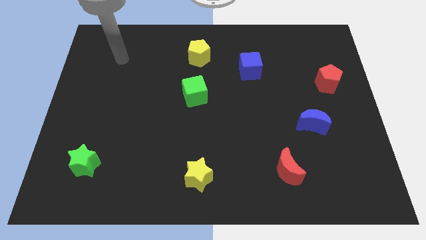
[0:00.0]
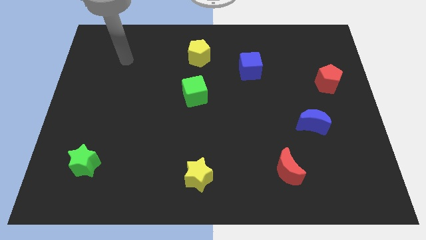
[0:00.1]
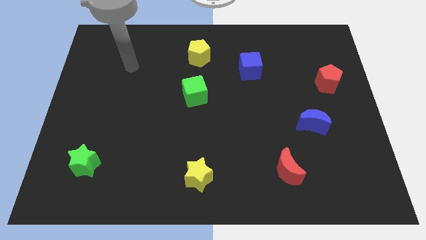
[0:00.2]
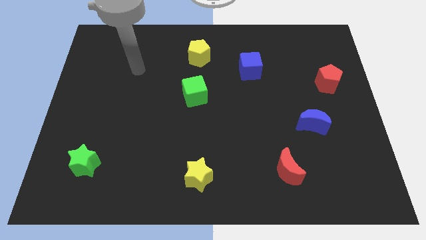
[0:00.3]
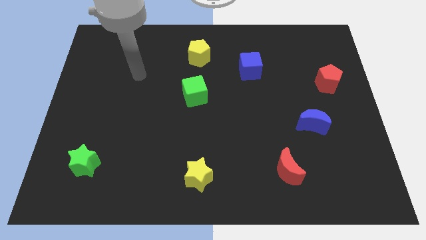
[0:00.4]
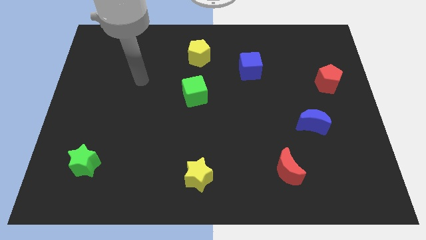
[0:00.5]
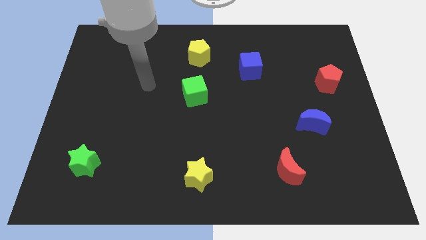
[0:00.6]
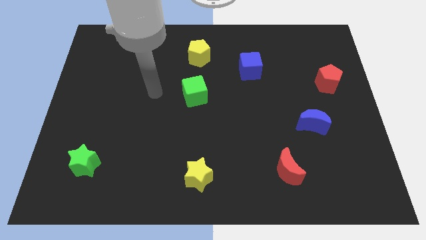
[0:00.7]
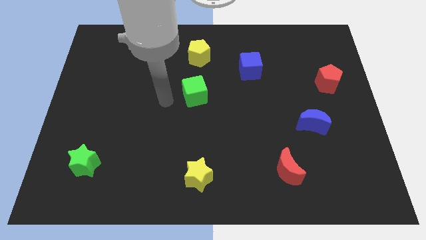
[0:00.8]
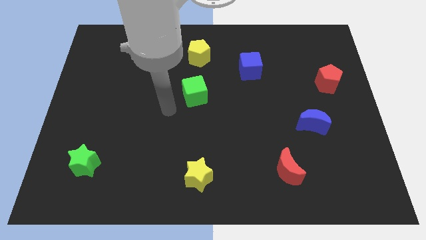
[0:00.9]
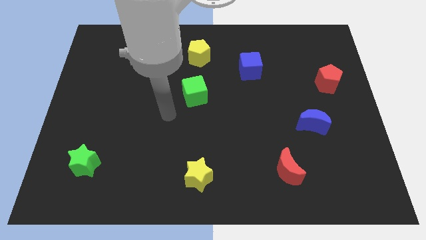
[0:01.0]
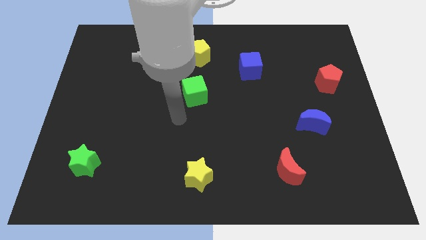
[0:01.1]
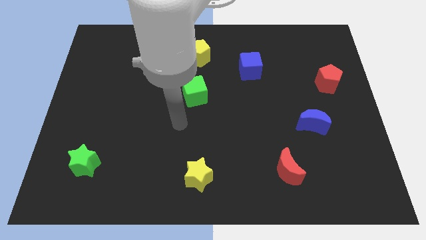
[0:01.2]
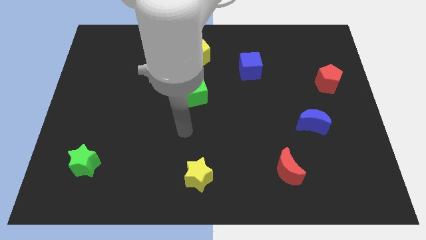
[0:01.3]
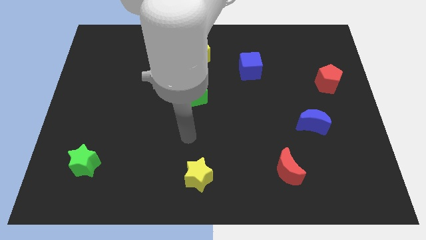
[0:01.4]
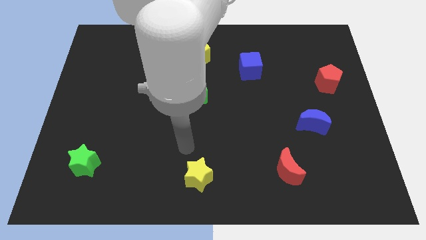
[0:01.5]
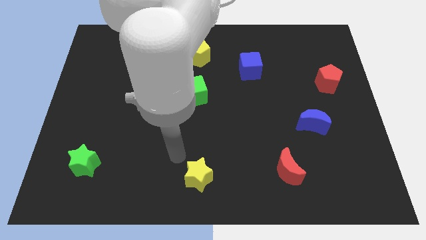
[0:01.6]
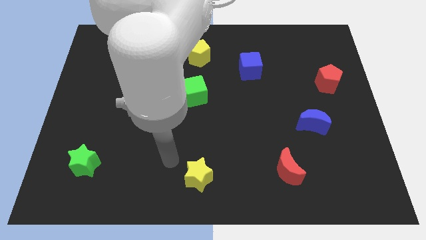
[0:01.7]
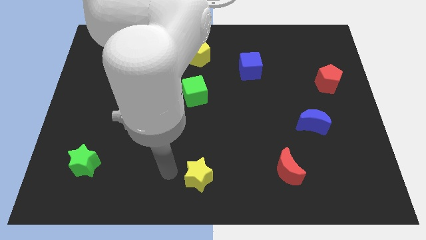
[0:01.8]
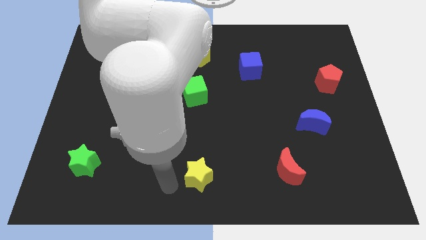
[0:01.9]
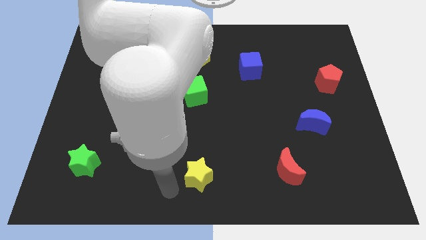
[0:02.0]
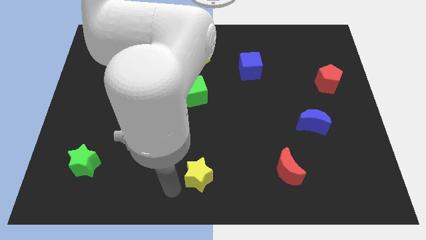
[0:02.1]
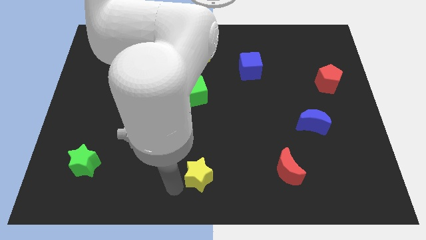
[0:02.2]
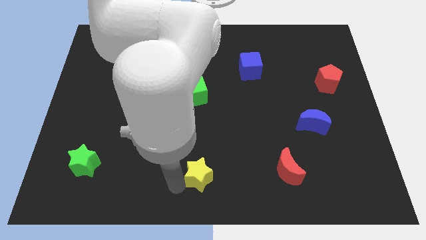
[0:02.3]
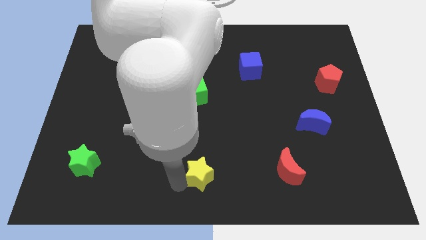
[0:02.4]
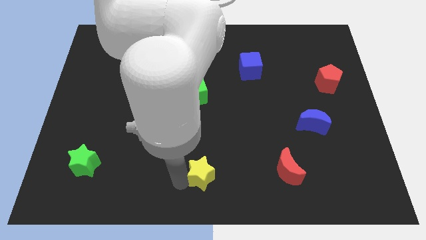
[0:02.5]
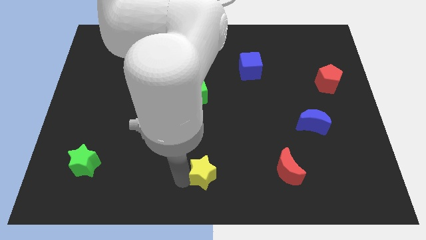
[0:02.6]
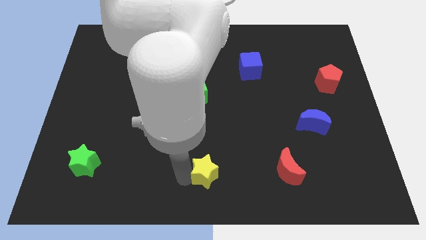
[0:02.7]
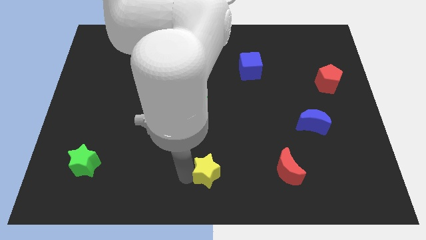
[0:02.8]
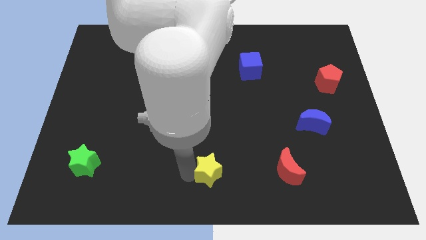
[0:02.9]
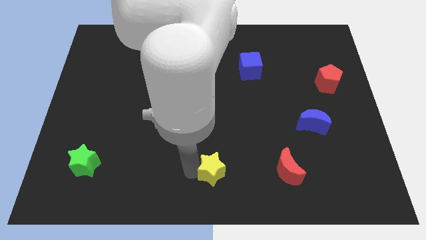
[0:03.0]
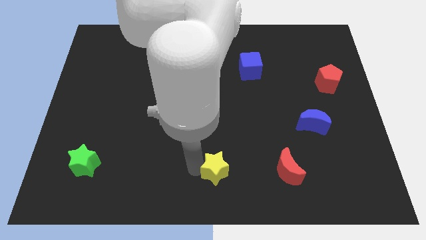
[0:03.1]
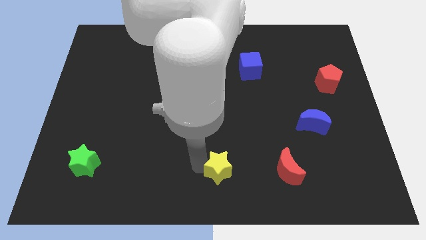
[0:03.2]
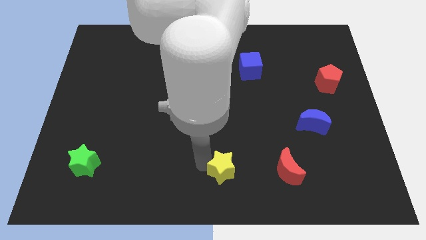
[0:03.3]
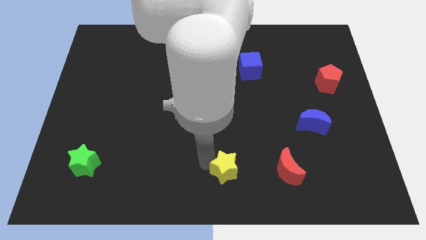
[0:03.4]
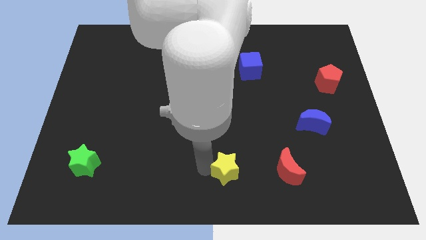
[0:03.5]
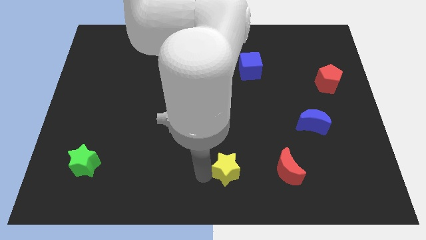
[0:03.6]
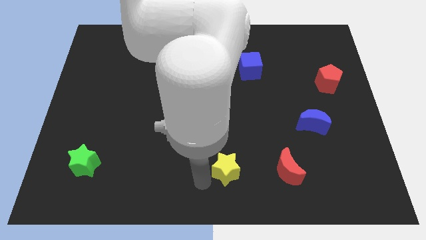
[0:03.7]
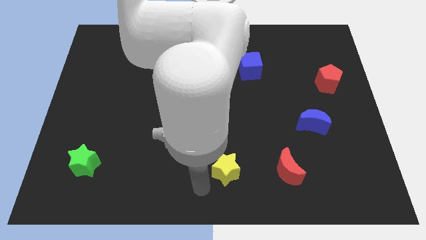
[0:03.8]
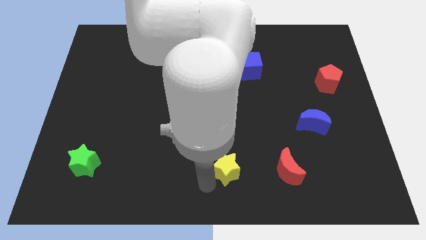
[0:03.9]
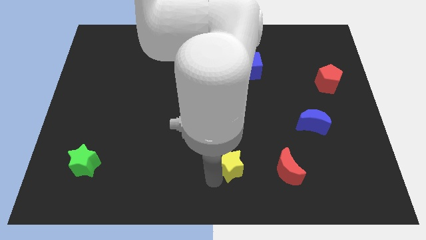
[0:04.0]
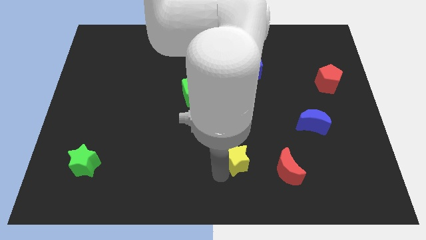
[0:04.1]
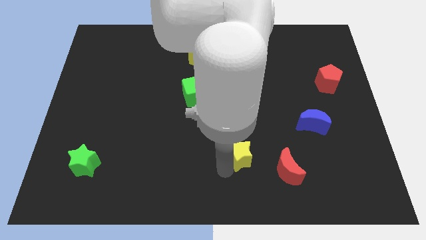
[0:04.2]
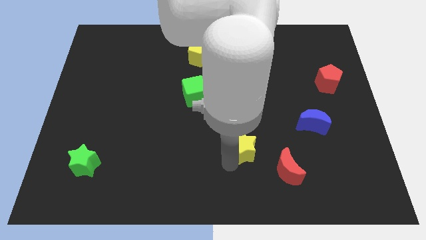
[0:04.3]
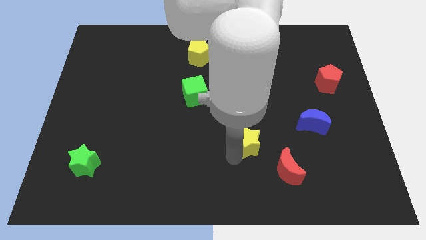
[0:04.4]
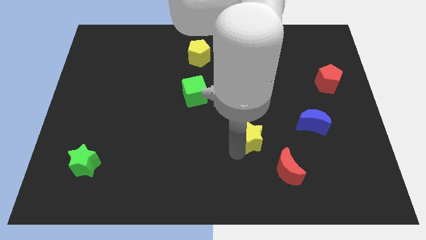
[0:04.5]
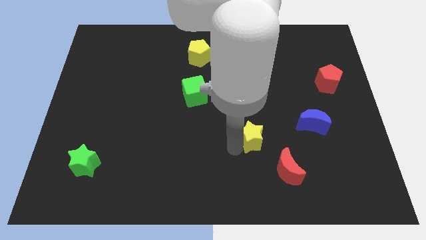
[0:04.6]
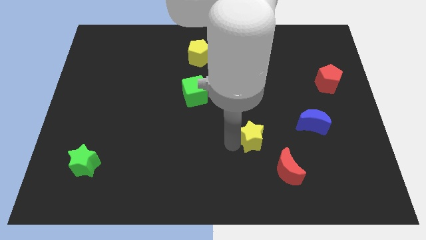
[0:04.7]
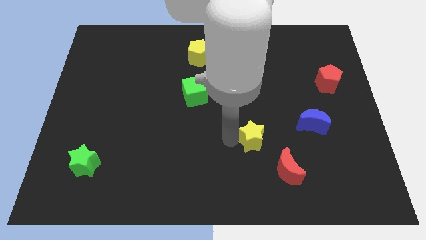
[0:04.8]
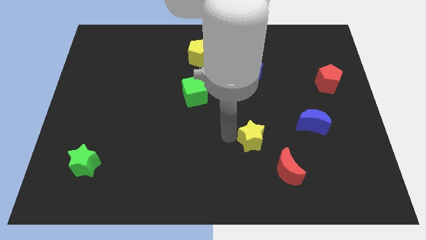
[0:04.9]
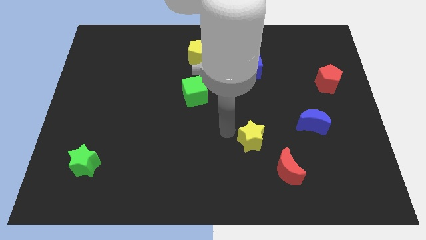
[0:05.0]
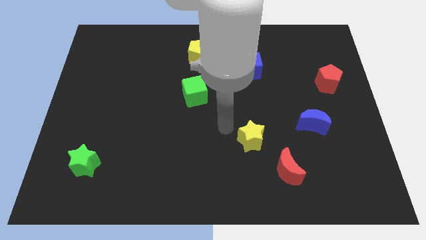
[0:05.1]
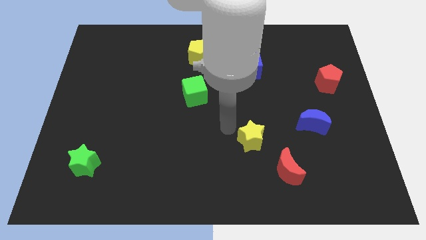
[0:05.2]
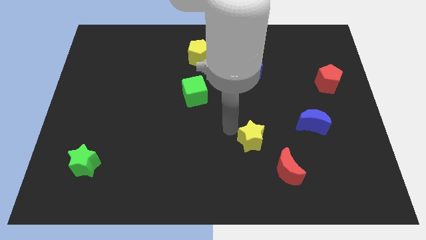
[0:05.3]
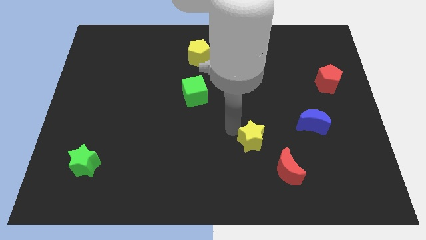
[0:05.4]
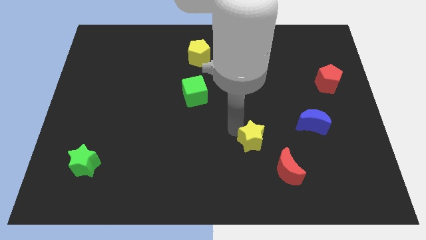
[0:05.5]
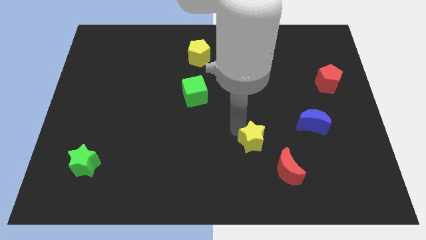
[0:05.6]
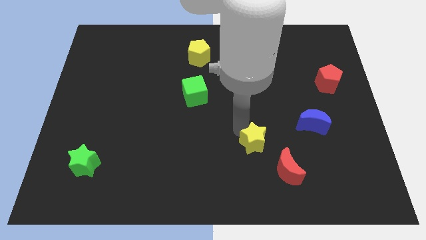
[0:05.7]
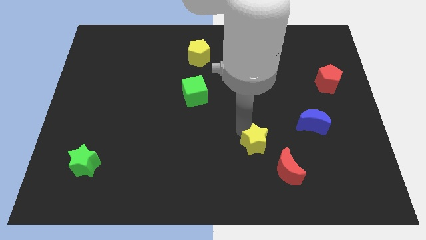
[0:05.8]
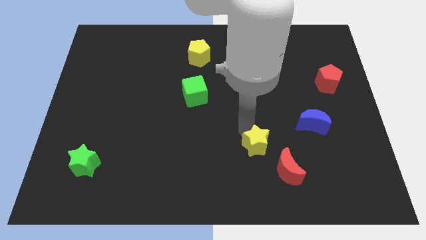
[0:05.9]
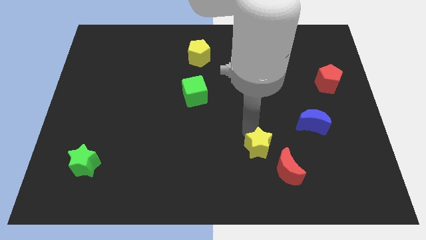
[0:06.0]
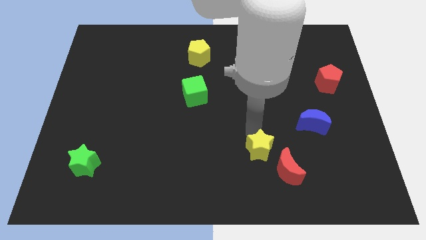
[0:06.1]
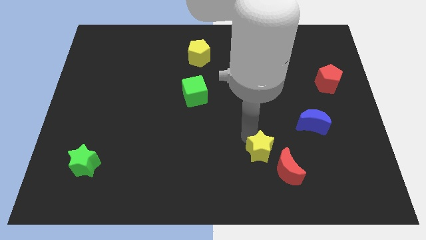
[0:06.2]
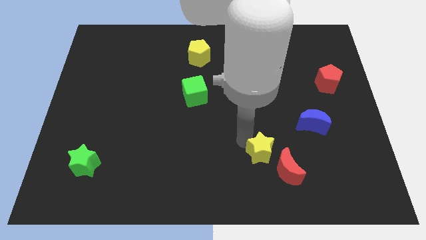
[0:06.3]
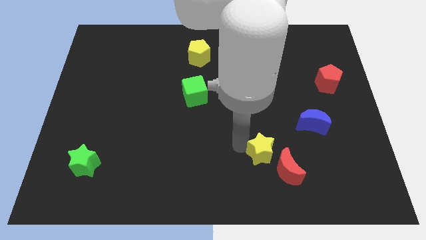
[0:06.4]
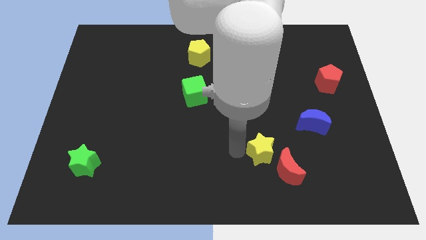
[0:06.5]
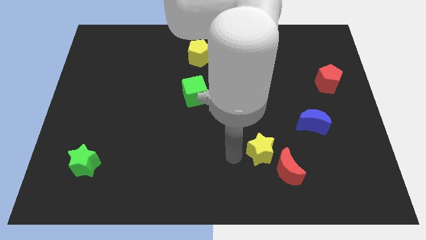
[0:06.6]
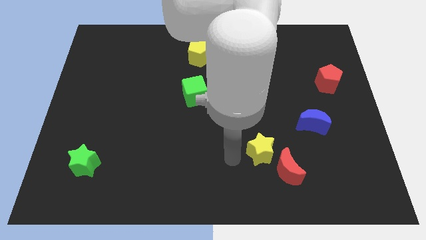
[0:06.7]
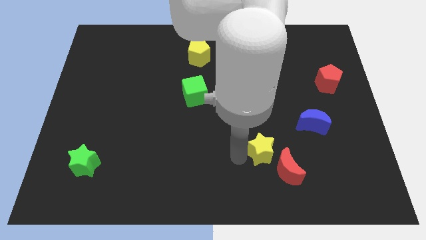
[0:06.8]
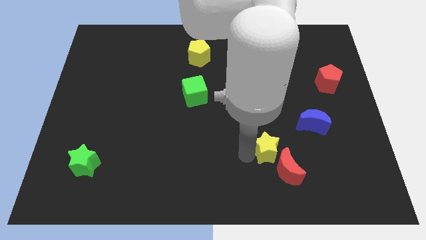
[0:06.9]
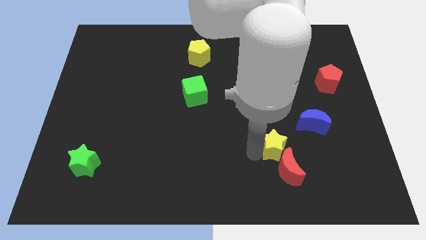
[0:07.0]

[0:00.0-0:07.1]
slide the yellow star to the bottom left side of the blue moon

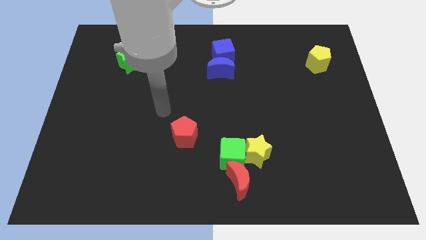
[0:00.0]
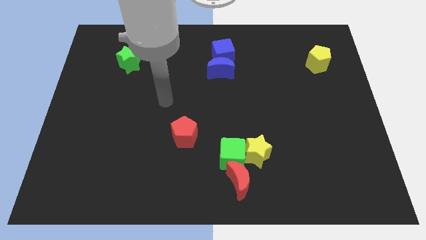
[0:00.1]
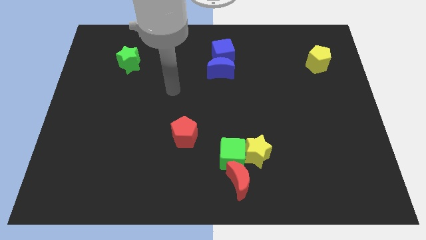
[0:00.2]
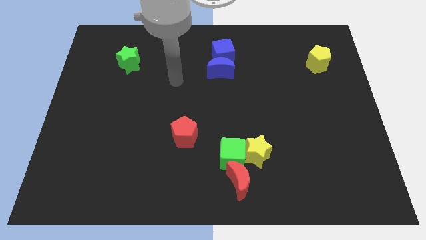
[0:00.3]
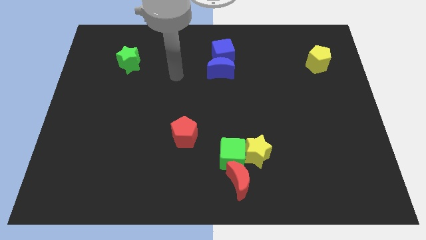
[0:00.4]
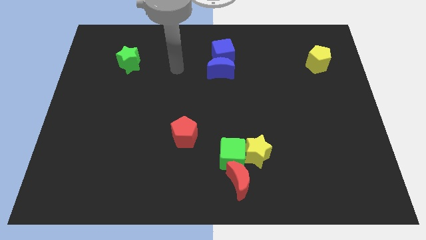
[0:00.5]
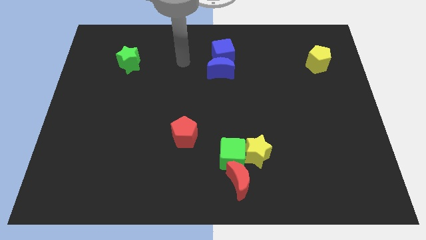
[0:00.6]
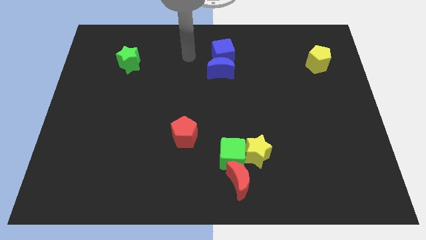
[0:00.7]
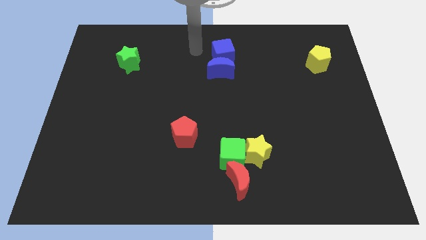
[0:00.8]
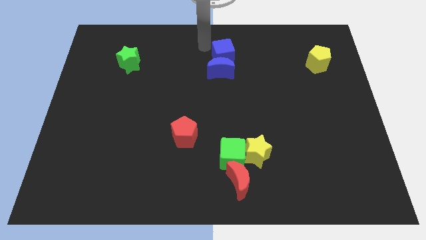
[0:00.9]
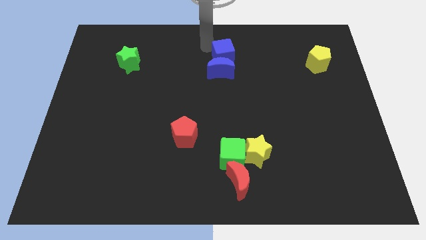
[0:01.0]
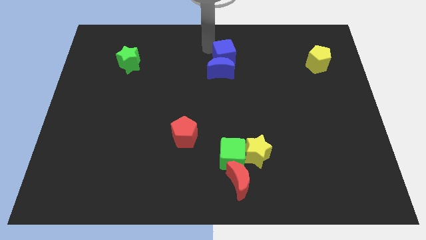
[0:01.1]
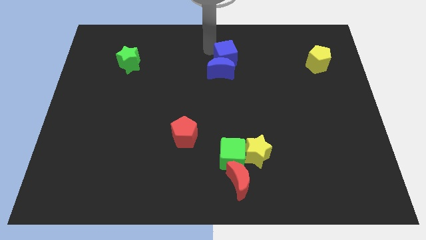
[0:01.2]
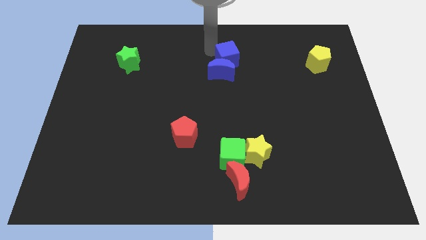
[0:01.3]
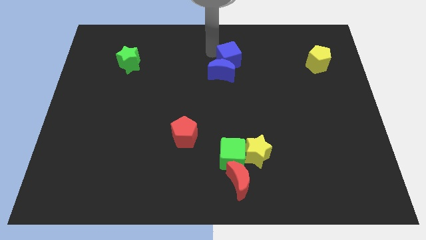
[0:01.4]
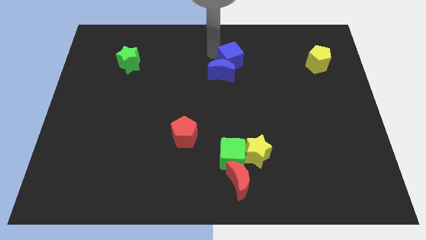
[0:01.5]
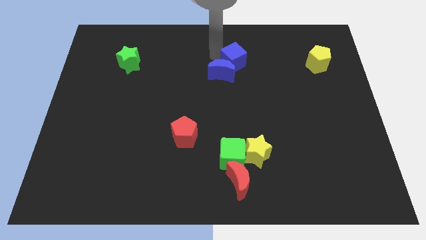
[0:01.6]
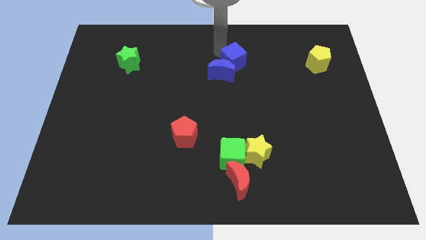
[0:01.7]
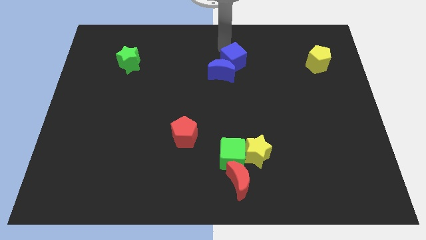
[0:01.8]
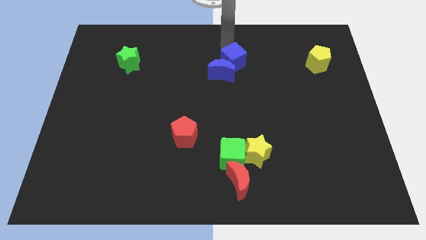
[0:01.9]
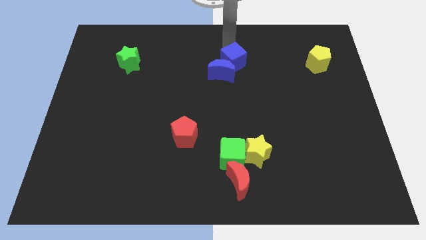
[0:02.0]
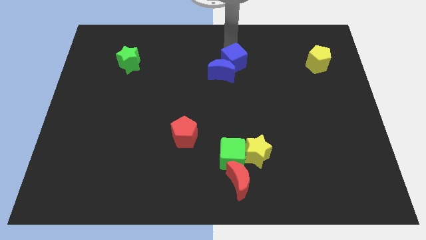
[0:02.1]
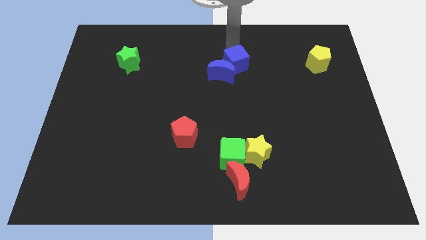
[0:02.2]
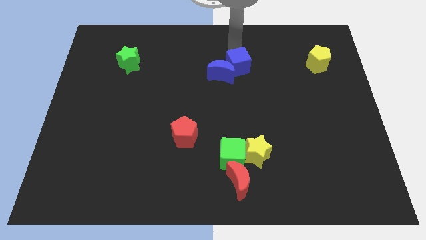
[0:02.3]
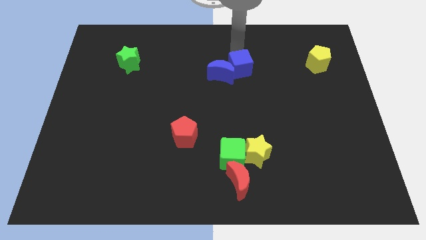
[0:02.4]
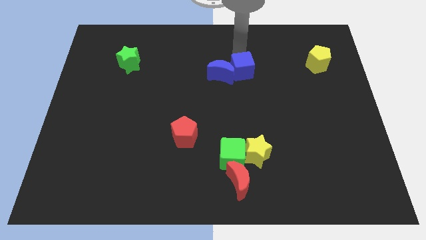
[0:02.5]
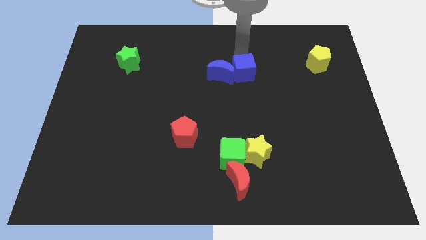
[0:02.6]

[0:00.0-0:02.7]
push the blue cube diagonally down and to the right of the blue moon
